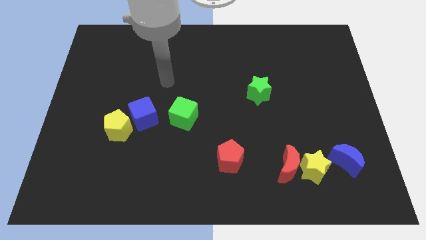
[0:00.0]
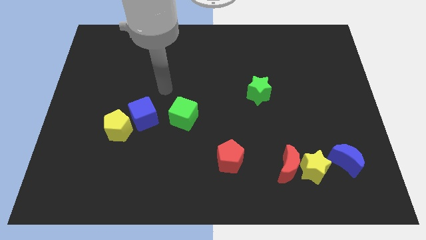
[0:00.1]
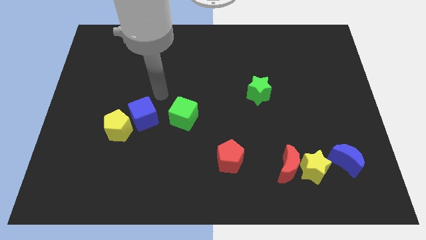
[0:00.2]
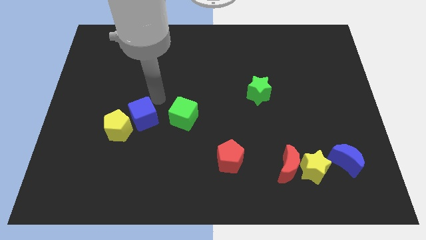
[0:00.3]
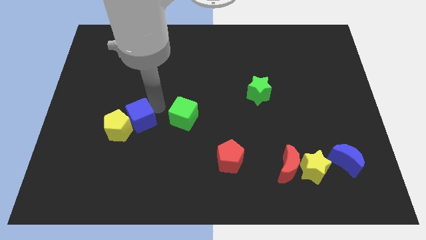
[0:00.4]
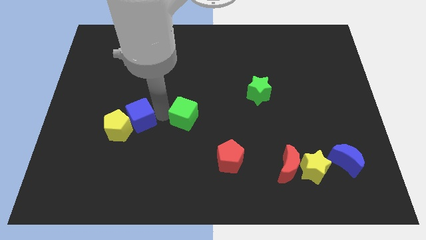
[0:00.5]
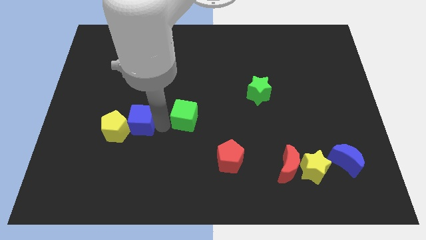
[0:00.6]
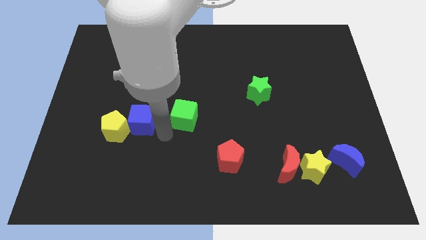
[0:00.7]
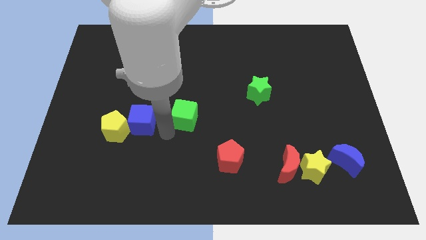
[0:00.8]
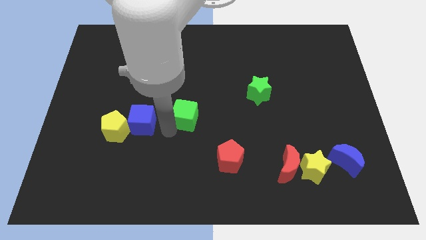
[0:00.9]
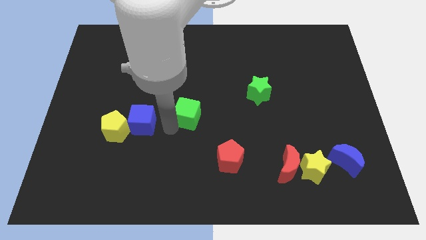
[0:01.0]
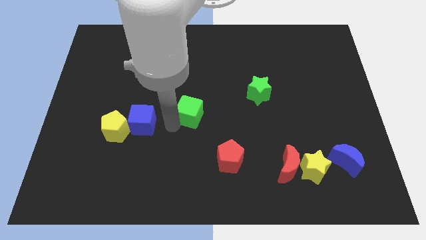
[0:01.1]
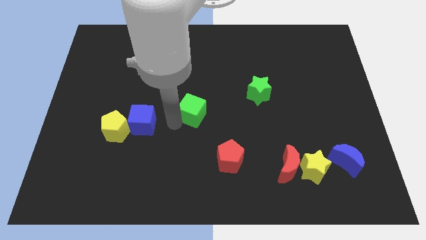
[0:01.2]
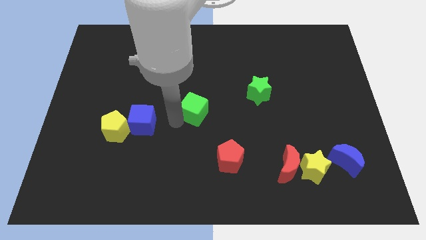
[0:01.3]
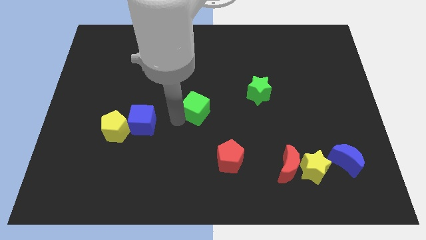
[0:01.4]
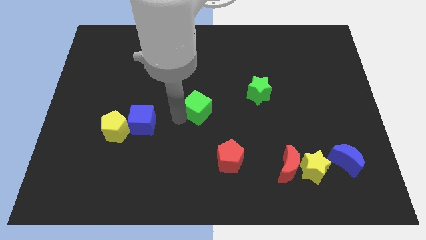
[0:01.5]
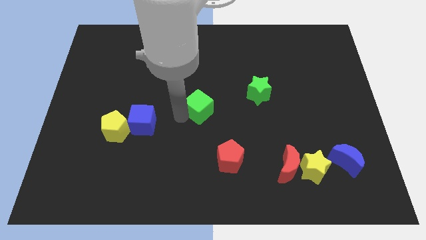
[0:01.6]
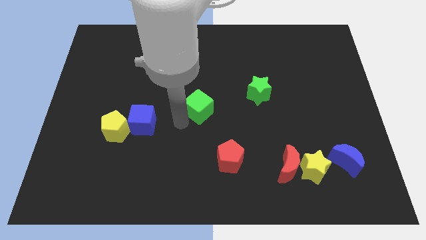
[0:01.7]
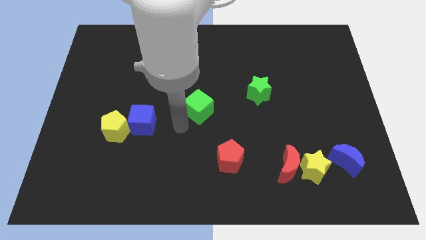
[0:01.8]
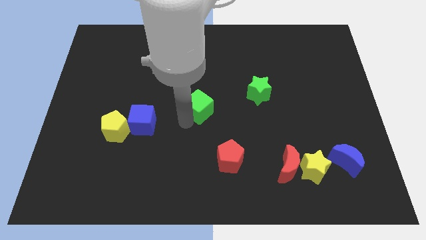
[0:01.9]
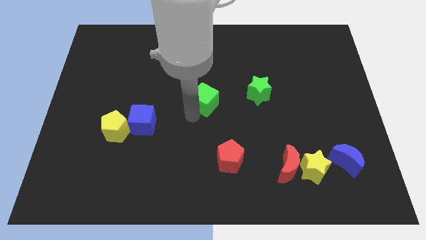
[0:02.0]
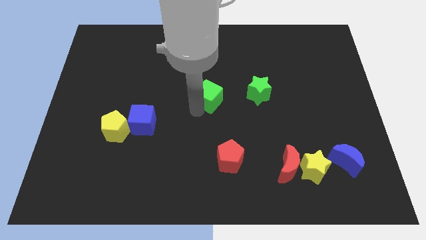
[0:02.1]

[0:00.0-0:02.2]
slightly move the green cube up and then right

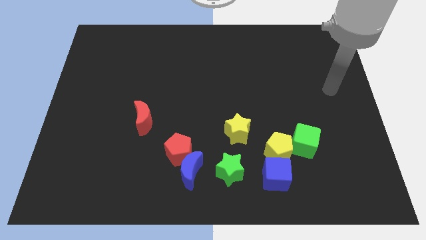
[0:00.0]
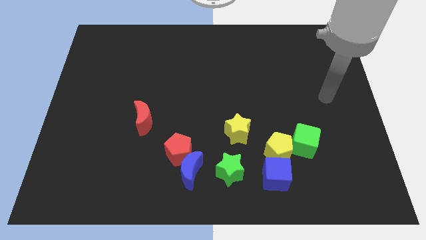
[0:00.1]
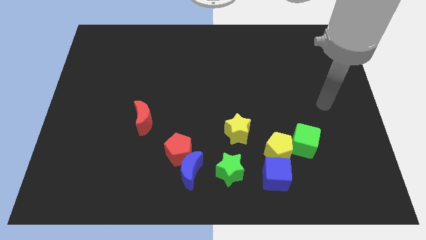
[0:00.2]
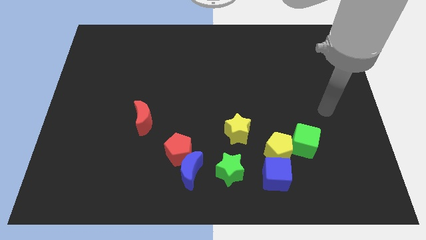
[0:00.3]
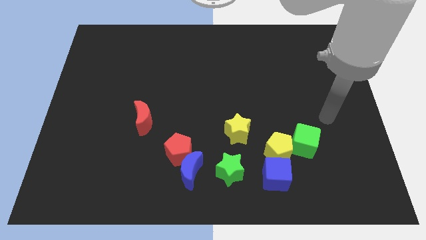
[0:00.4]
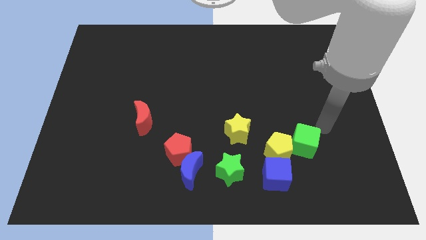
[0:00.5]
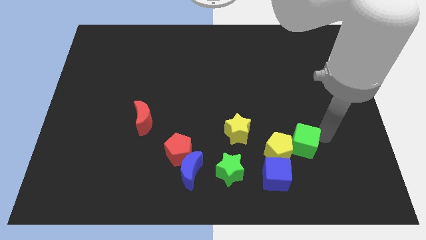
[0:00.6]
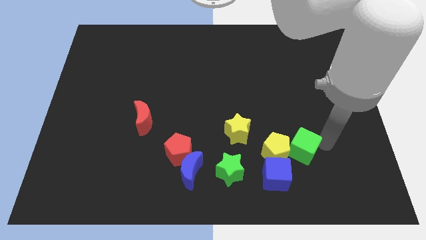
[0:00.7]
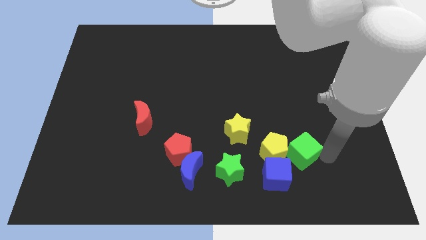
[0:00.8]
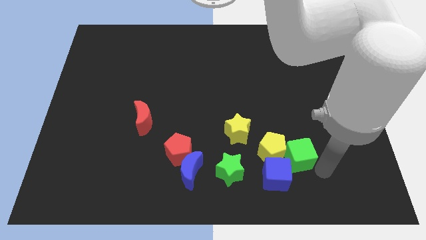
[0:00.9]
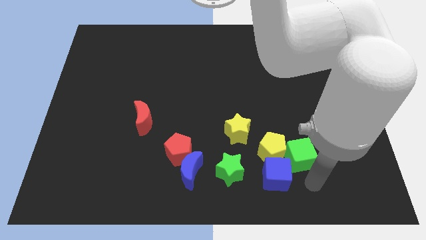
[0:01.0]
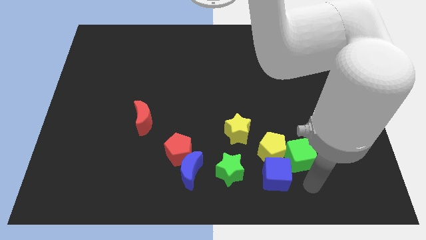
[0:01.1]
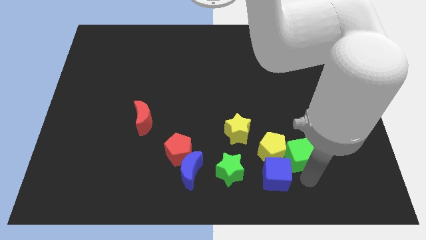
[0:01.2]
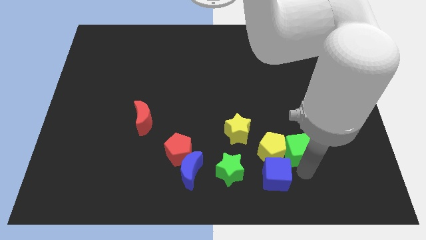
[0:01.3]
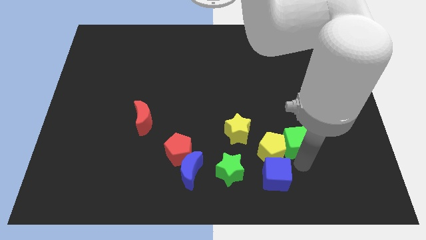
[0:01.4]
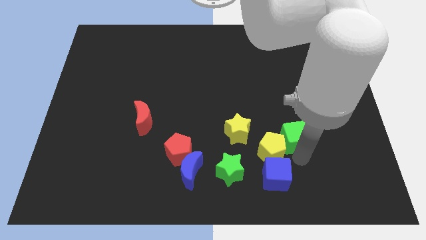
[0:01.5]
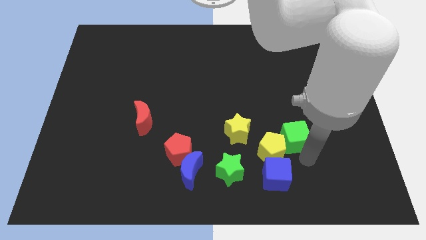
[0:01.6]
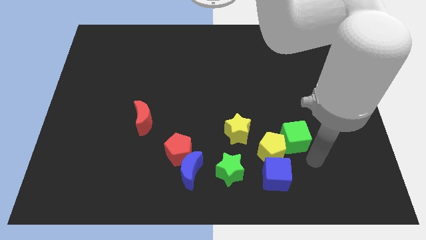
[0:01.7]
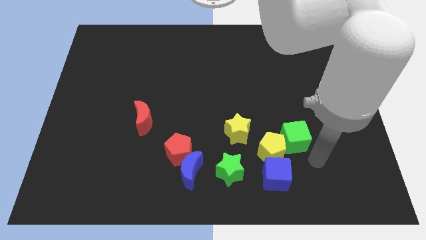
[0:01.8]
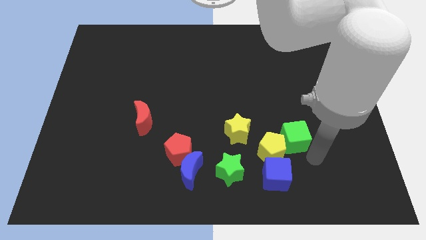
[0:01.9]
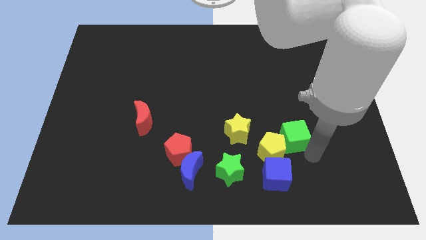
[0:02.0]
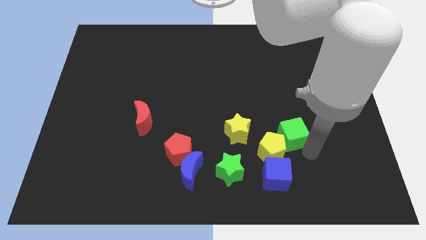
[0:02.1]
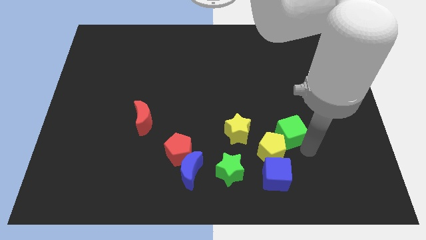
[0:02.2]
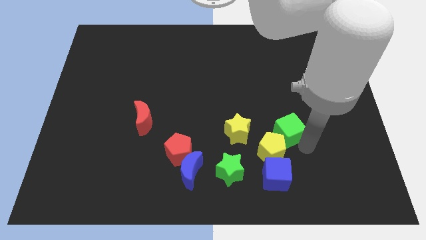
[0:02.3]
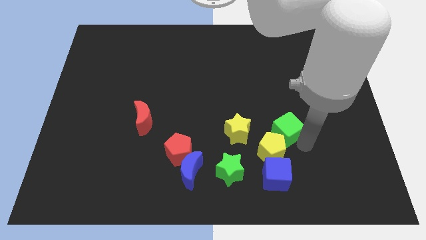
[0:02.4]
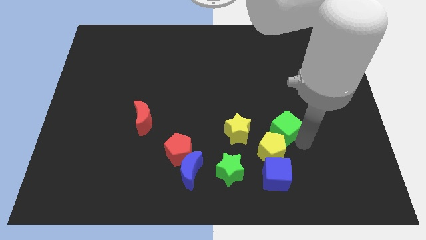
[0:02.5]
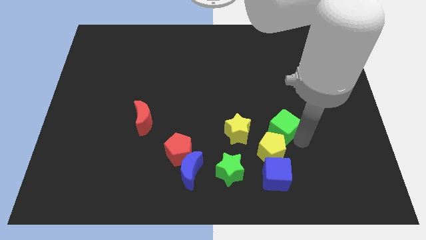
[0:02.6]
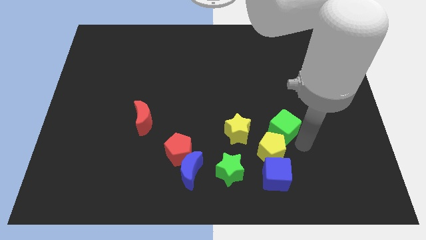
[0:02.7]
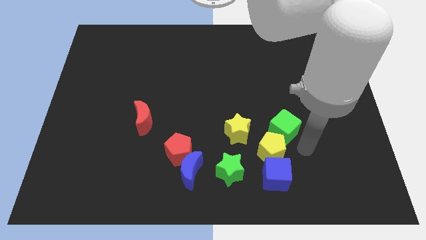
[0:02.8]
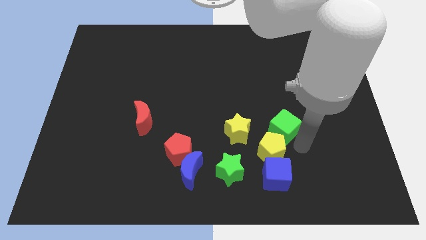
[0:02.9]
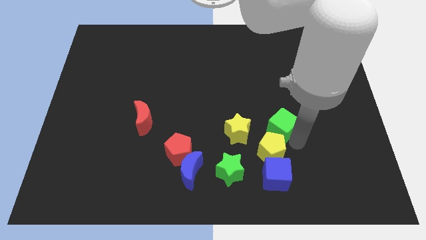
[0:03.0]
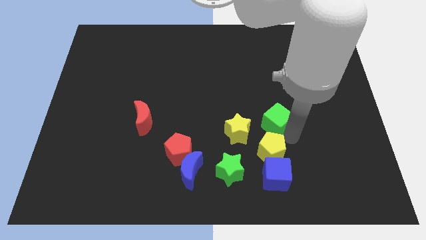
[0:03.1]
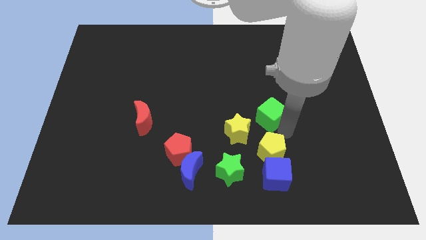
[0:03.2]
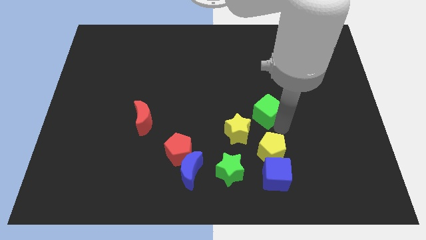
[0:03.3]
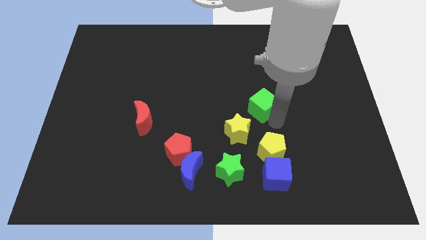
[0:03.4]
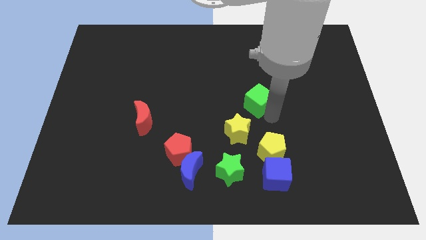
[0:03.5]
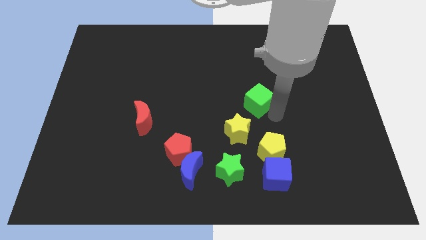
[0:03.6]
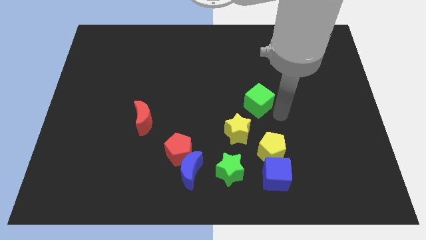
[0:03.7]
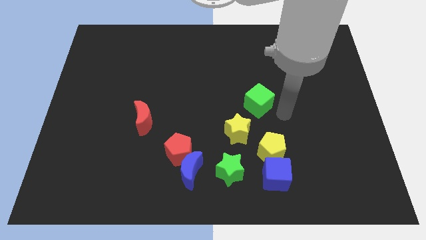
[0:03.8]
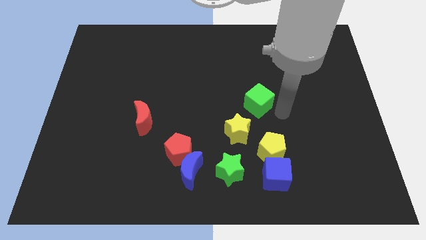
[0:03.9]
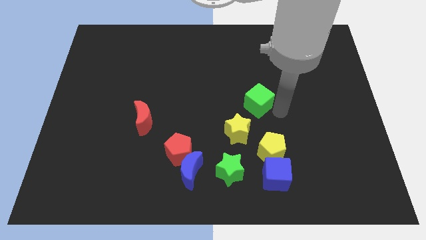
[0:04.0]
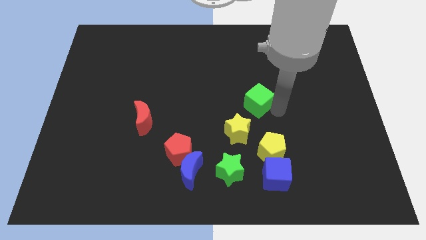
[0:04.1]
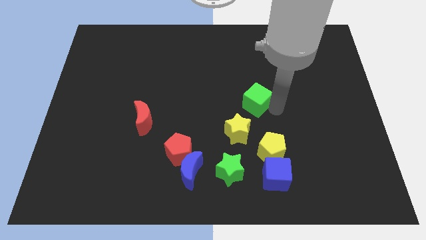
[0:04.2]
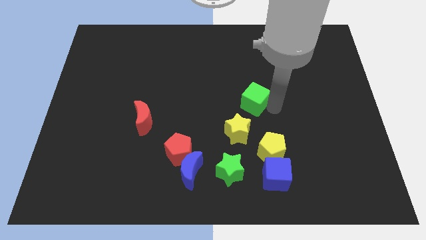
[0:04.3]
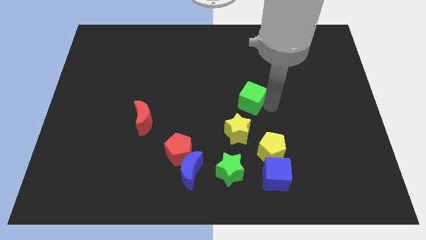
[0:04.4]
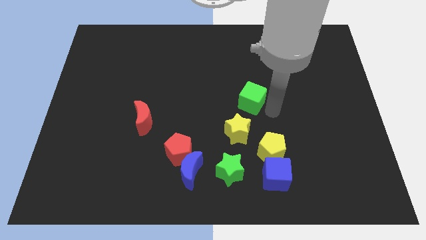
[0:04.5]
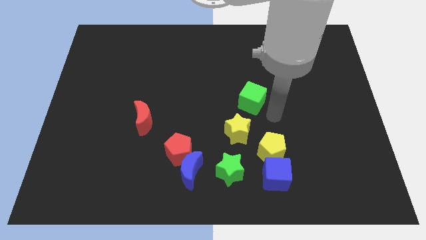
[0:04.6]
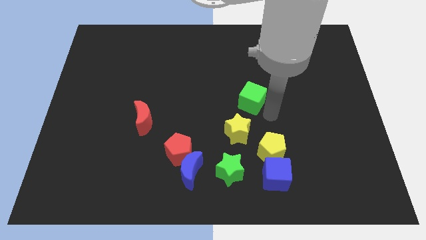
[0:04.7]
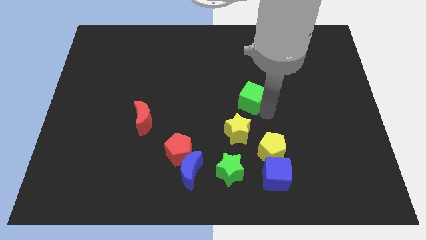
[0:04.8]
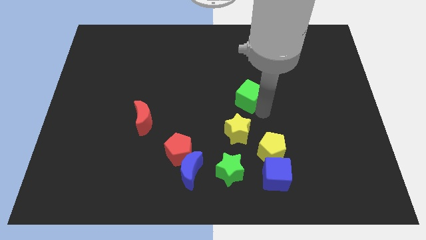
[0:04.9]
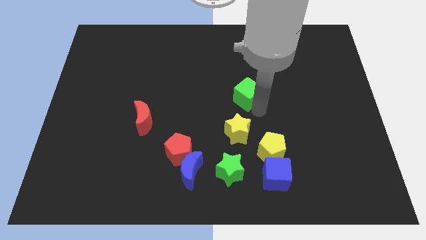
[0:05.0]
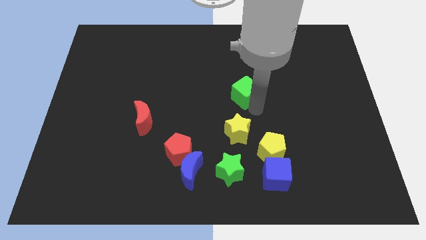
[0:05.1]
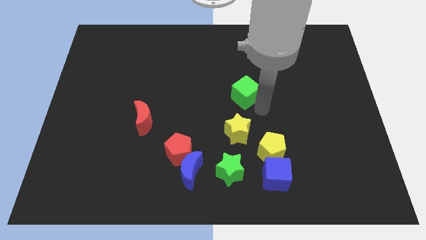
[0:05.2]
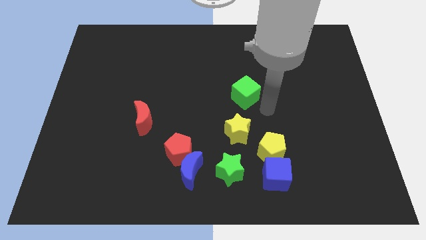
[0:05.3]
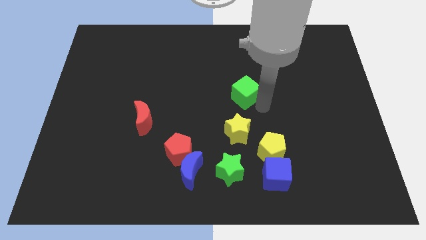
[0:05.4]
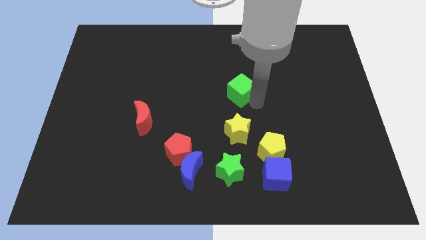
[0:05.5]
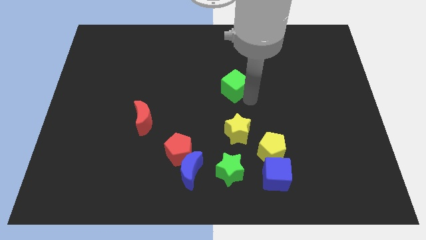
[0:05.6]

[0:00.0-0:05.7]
slide the green cube upwards and to the left diagonally
